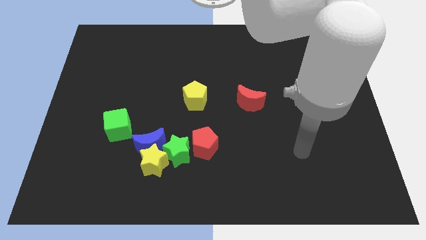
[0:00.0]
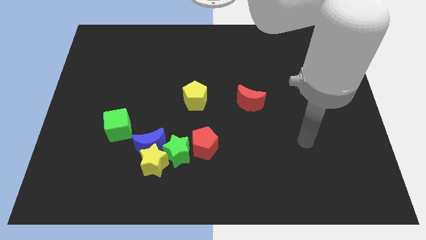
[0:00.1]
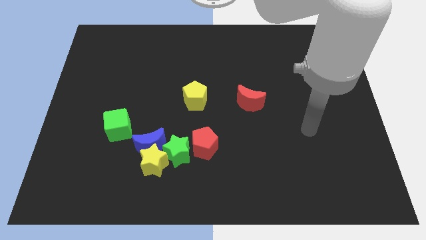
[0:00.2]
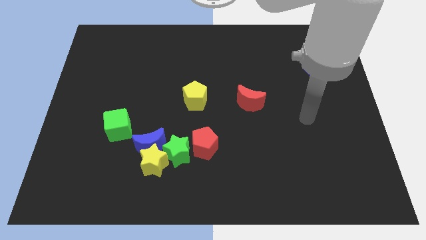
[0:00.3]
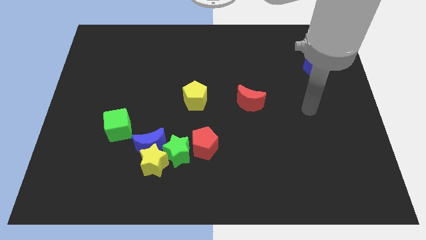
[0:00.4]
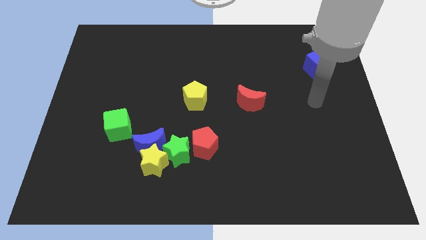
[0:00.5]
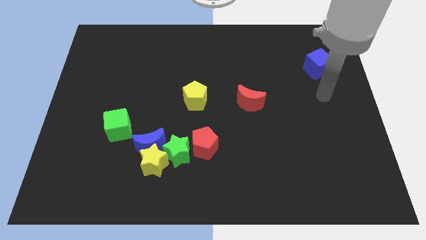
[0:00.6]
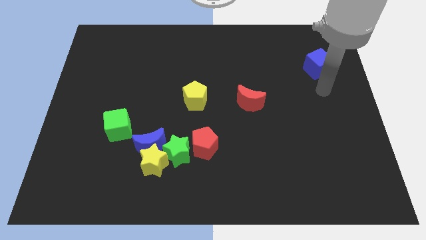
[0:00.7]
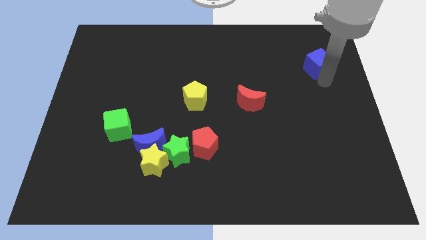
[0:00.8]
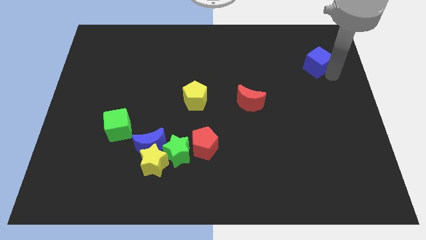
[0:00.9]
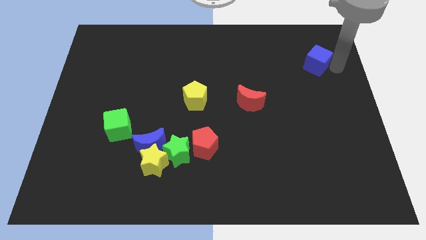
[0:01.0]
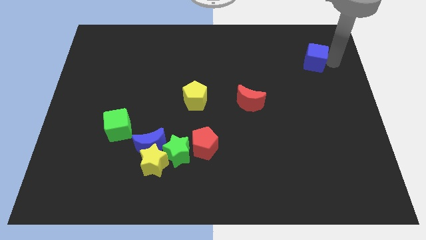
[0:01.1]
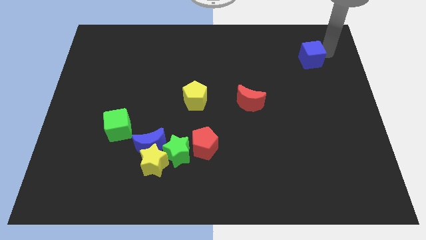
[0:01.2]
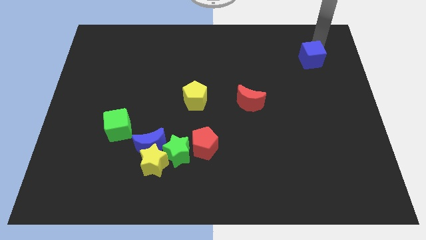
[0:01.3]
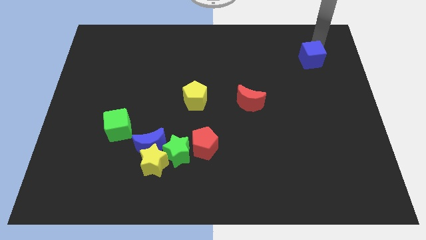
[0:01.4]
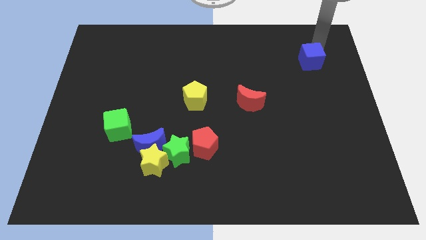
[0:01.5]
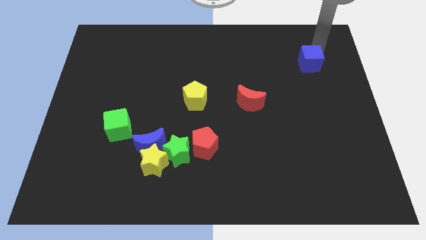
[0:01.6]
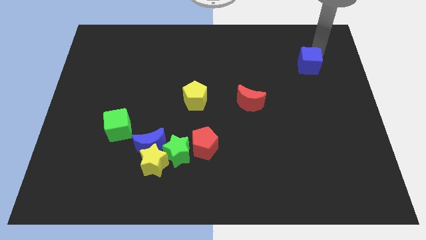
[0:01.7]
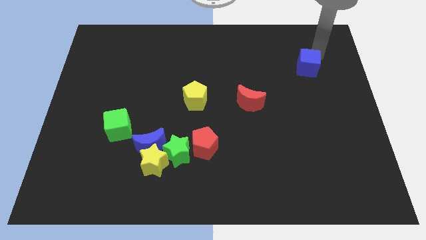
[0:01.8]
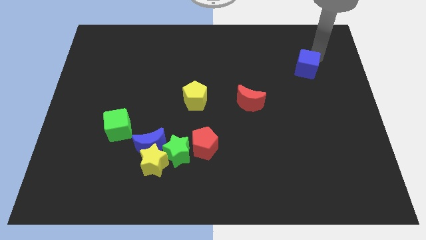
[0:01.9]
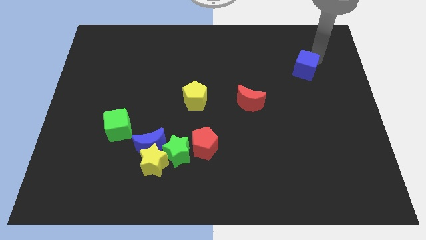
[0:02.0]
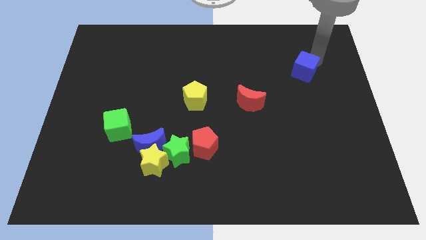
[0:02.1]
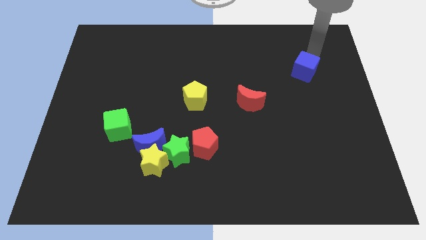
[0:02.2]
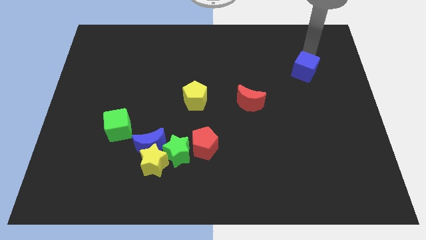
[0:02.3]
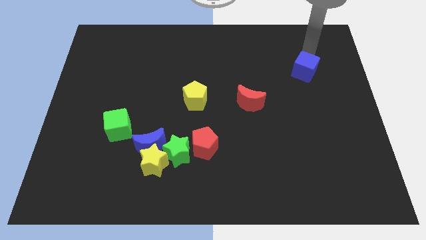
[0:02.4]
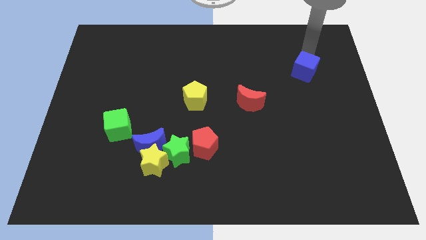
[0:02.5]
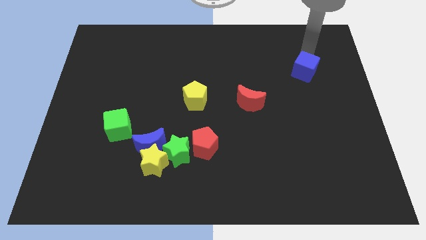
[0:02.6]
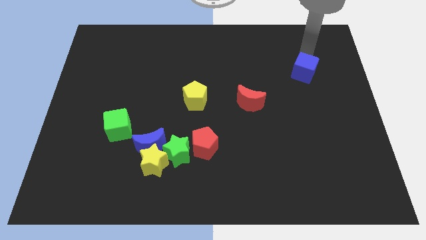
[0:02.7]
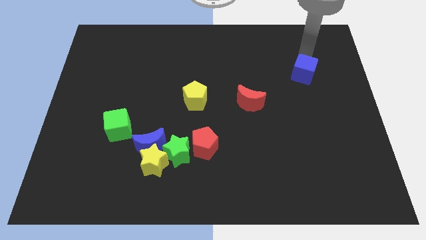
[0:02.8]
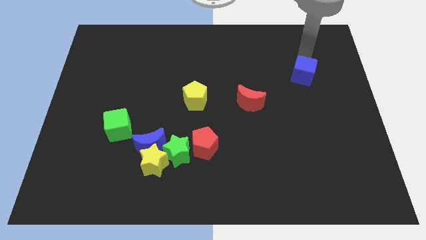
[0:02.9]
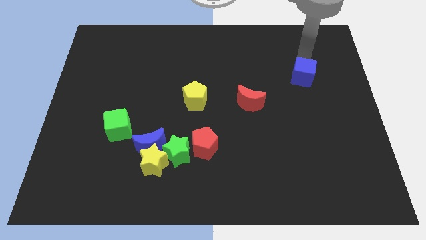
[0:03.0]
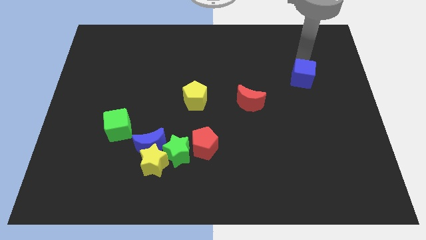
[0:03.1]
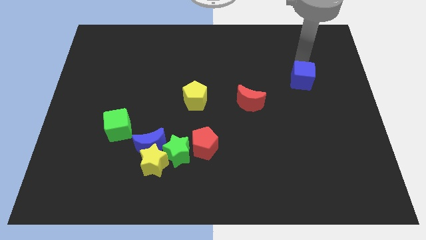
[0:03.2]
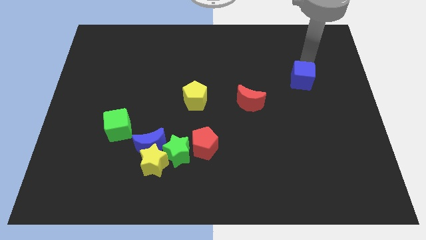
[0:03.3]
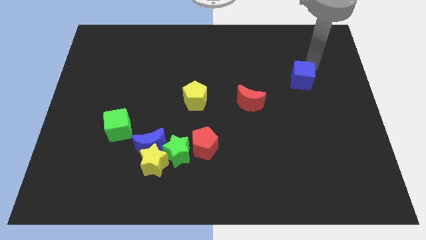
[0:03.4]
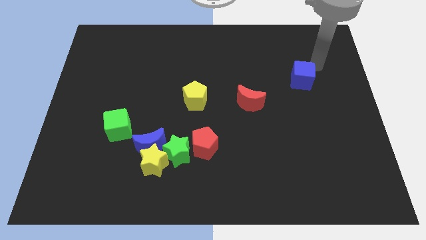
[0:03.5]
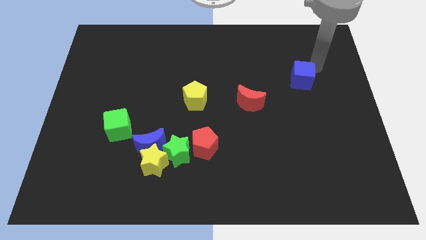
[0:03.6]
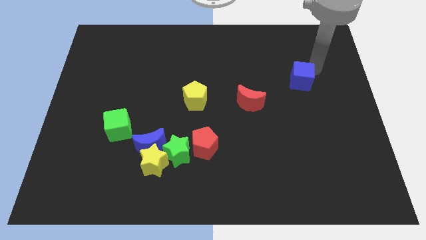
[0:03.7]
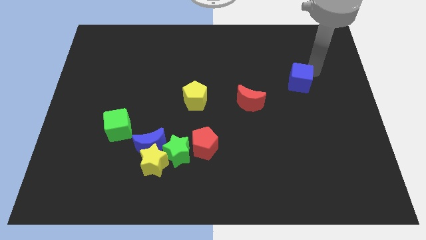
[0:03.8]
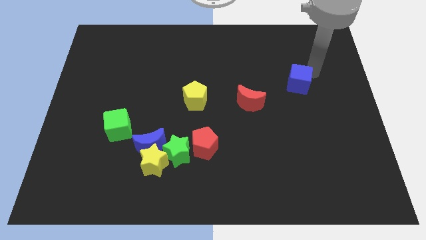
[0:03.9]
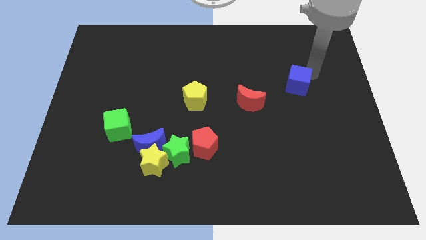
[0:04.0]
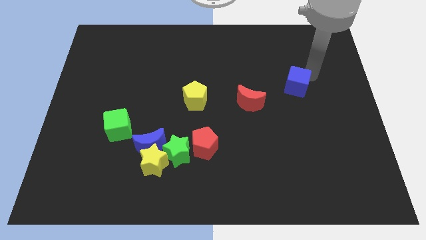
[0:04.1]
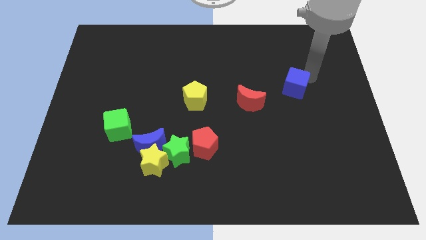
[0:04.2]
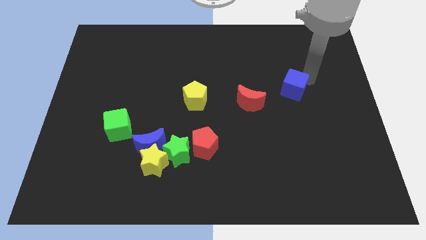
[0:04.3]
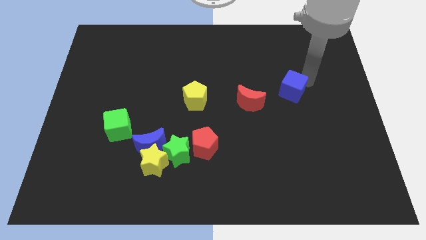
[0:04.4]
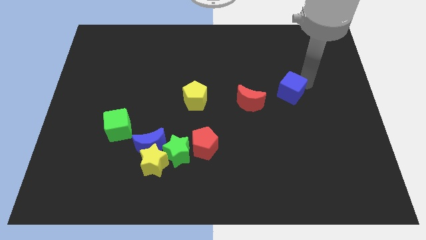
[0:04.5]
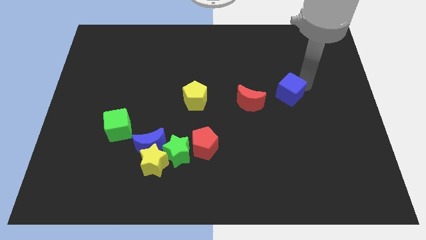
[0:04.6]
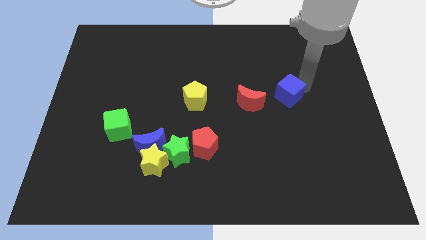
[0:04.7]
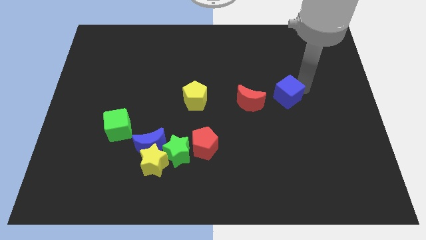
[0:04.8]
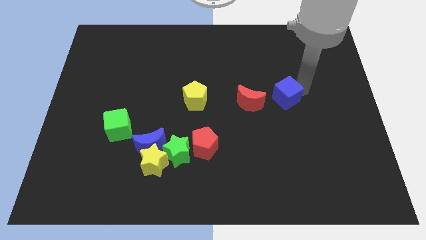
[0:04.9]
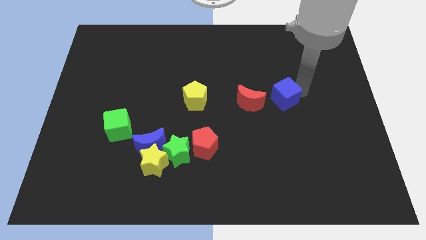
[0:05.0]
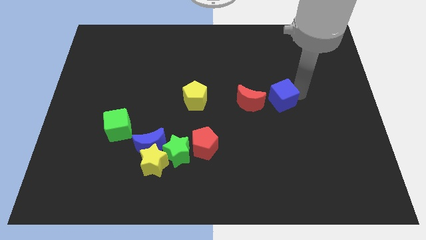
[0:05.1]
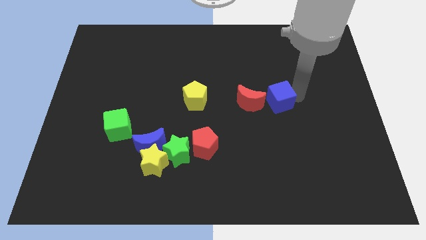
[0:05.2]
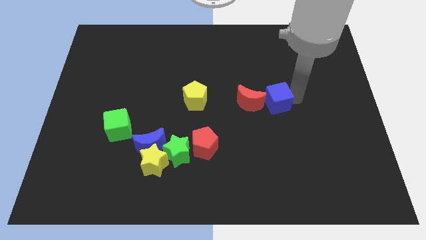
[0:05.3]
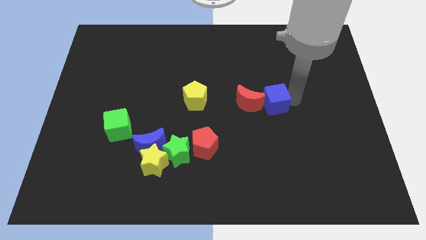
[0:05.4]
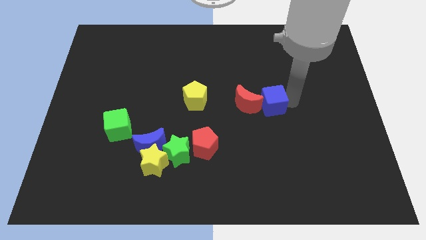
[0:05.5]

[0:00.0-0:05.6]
move the blue cube close to the red moon

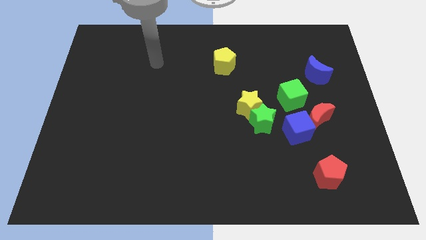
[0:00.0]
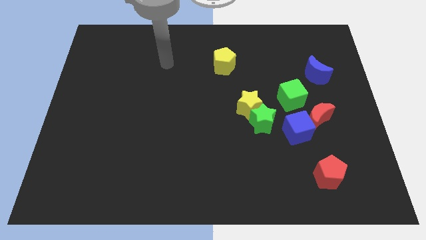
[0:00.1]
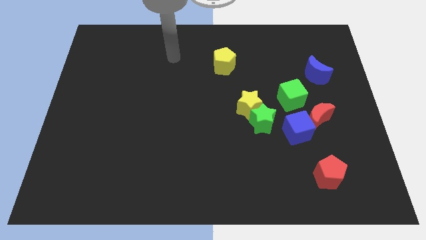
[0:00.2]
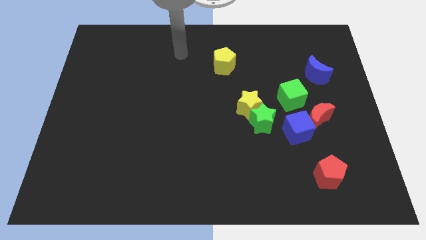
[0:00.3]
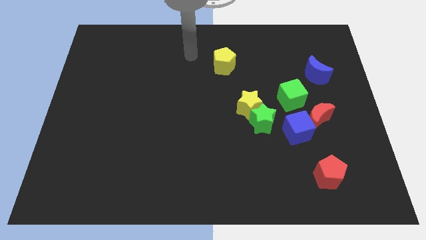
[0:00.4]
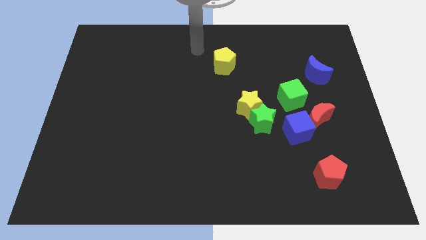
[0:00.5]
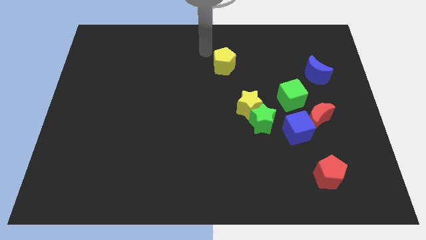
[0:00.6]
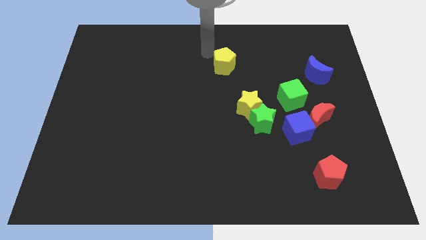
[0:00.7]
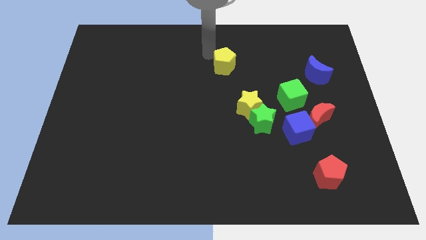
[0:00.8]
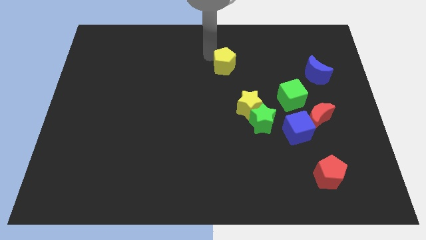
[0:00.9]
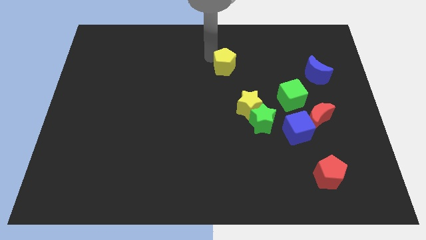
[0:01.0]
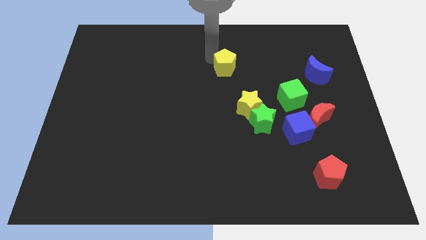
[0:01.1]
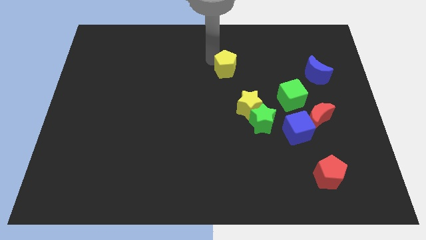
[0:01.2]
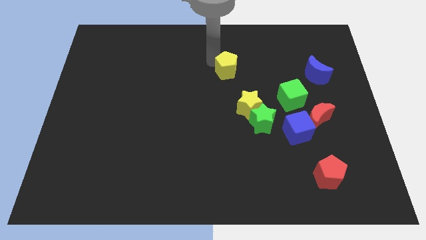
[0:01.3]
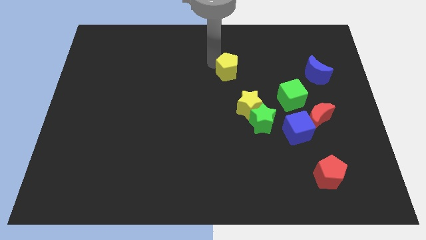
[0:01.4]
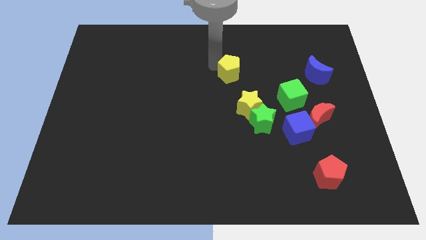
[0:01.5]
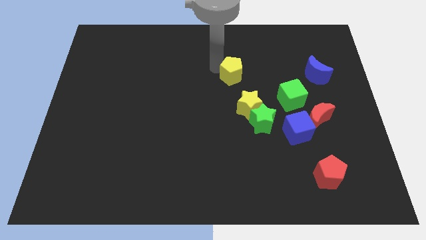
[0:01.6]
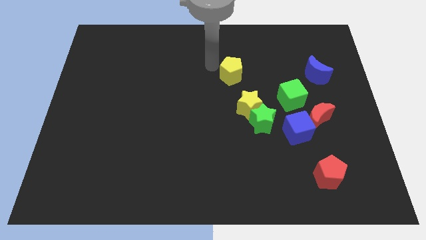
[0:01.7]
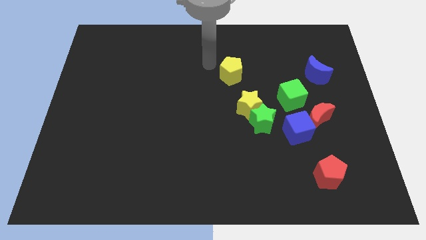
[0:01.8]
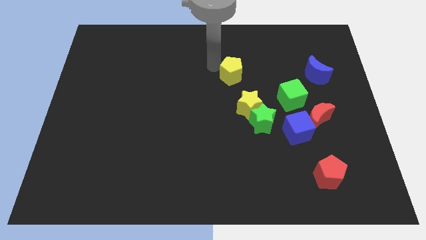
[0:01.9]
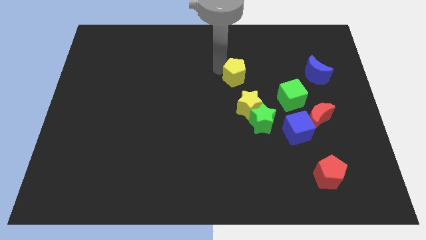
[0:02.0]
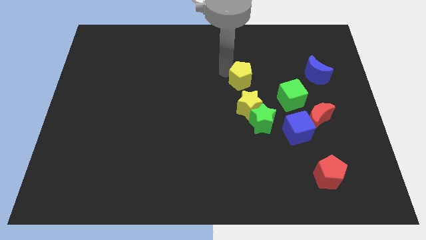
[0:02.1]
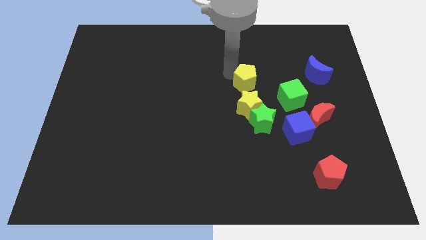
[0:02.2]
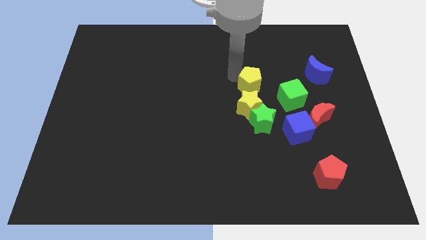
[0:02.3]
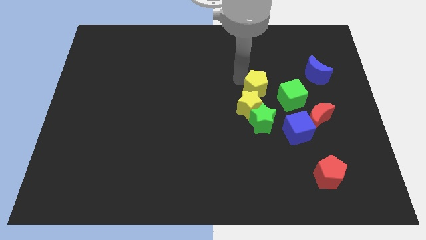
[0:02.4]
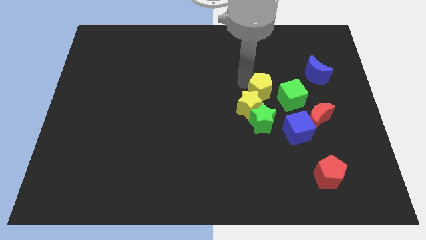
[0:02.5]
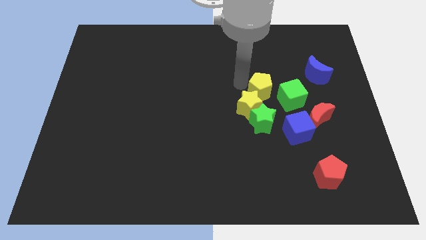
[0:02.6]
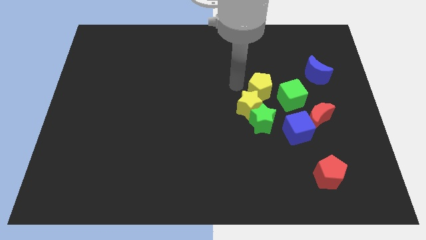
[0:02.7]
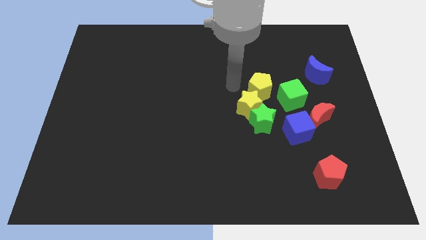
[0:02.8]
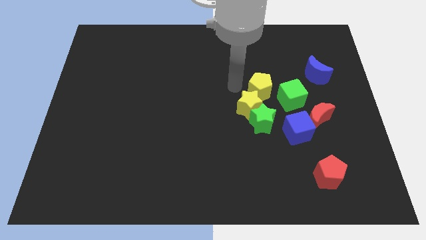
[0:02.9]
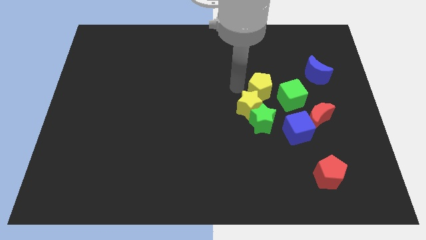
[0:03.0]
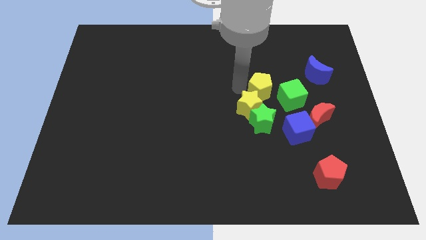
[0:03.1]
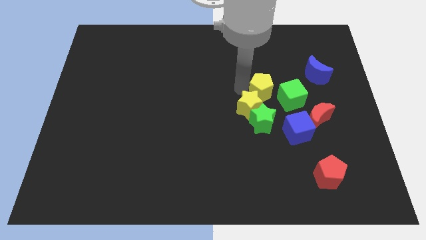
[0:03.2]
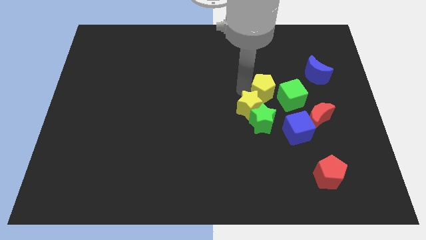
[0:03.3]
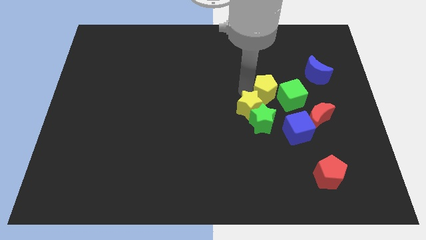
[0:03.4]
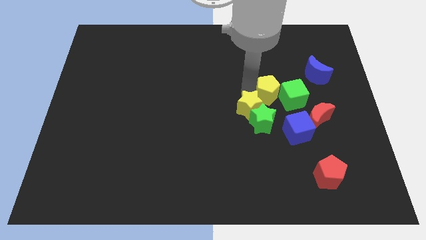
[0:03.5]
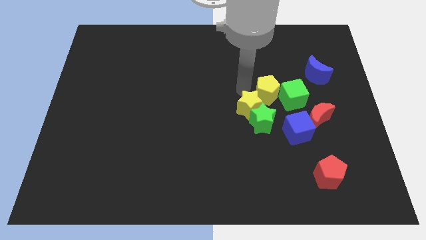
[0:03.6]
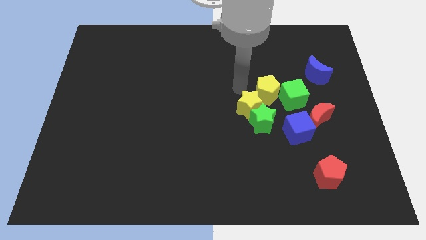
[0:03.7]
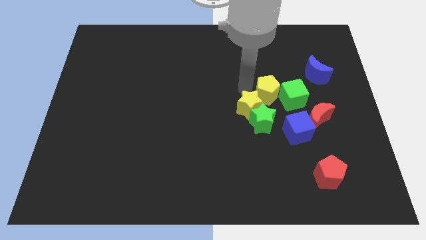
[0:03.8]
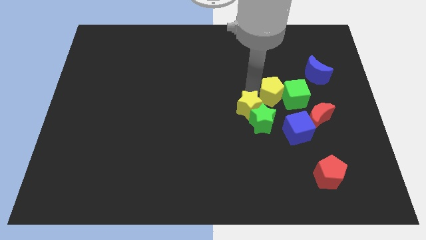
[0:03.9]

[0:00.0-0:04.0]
slide the yellow pentagon towards the green cube
